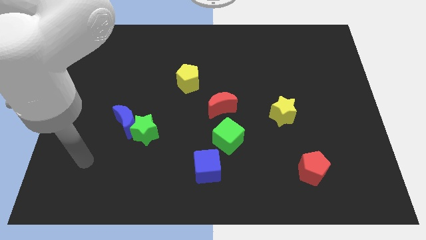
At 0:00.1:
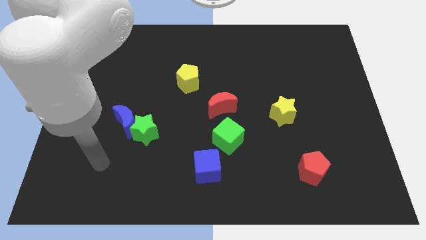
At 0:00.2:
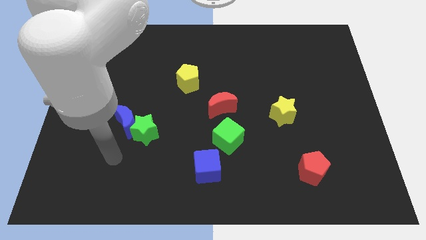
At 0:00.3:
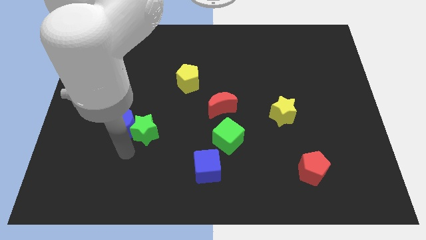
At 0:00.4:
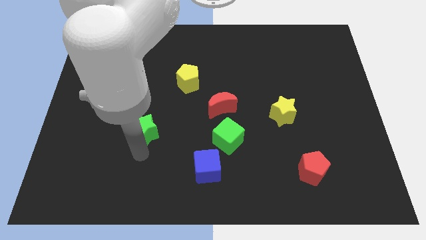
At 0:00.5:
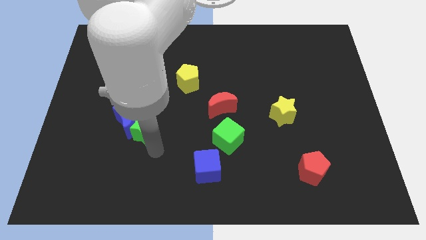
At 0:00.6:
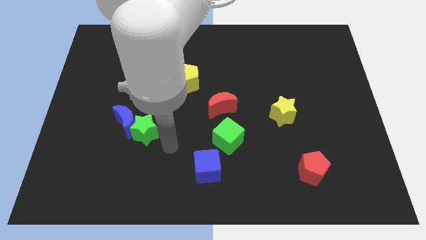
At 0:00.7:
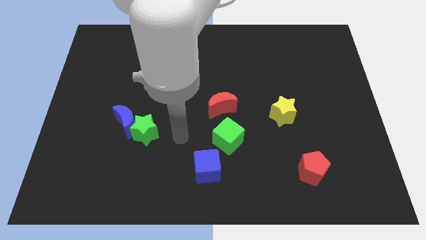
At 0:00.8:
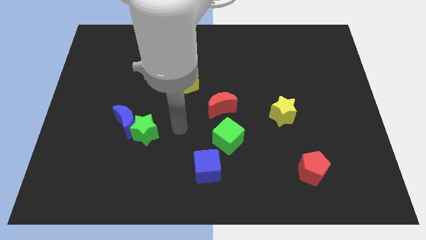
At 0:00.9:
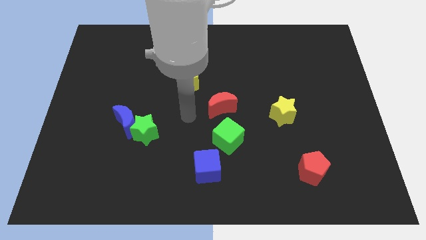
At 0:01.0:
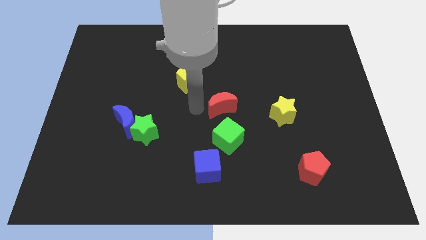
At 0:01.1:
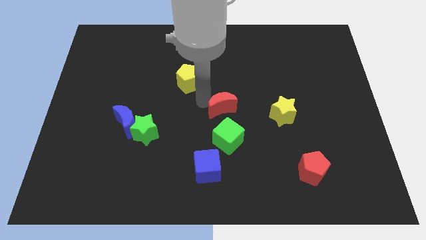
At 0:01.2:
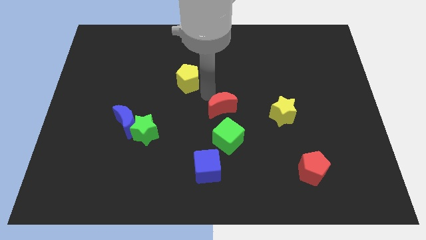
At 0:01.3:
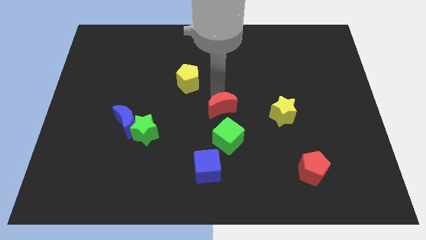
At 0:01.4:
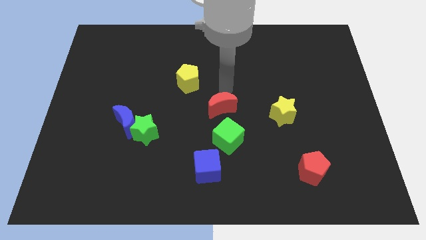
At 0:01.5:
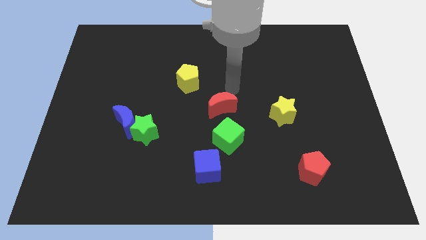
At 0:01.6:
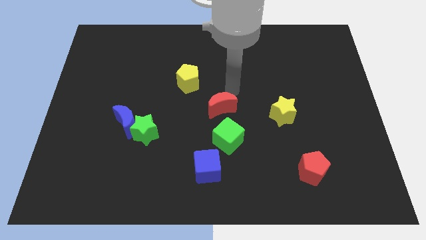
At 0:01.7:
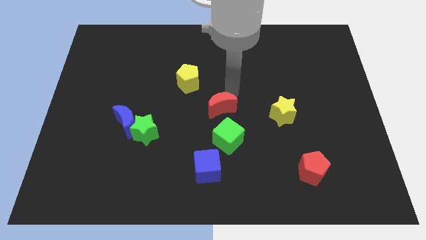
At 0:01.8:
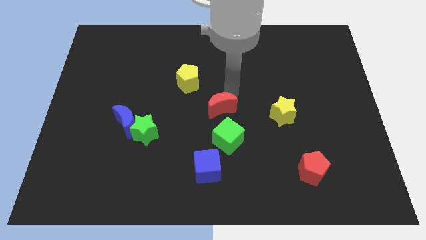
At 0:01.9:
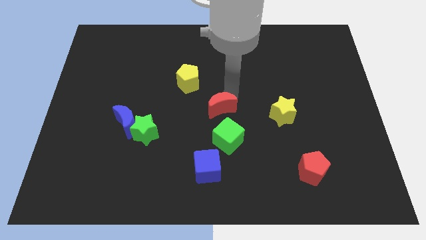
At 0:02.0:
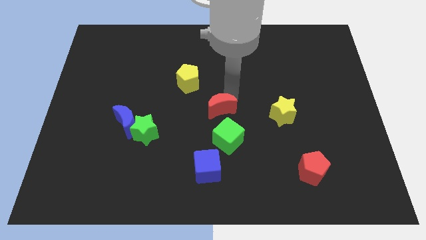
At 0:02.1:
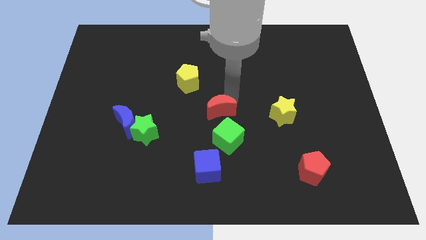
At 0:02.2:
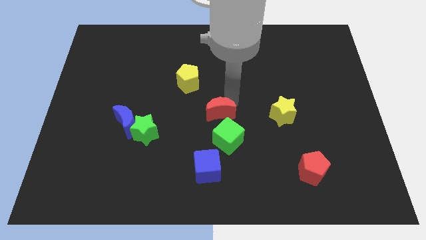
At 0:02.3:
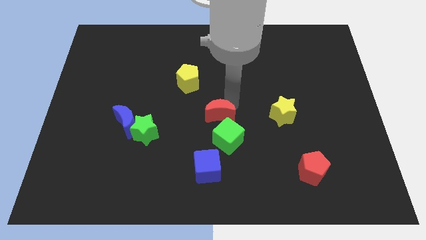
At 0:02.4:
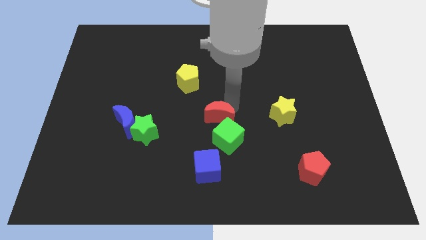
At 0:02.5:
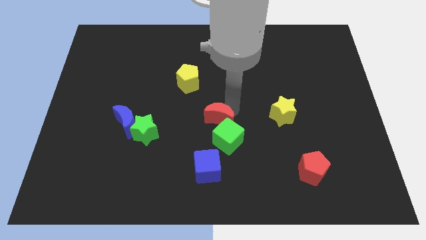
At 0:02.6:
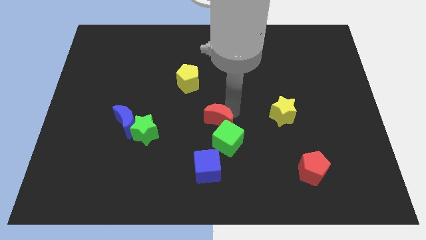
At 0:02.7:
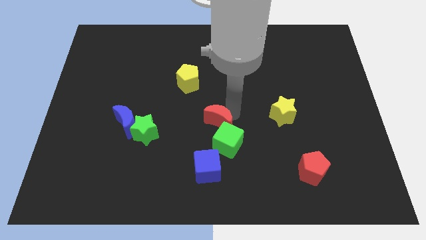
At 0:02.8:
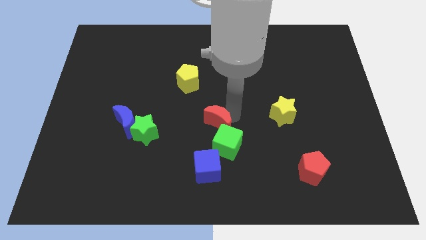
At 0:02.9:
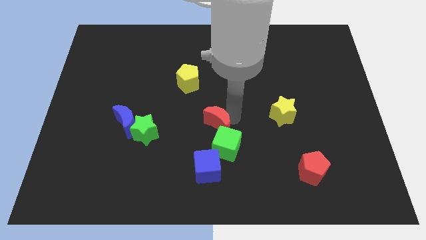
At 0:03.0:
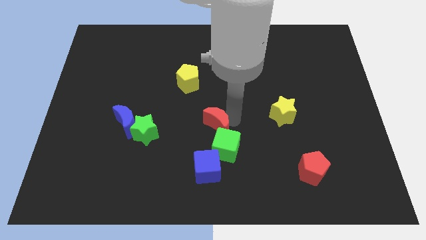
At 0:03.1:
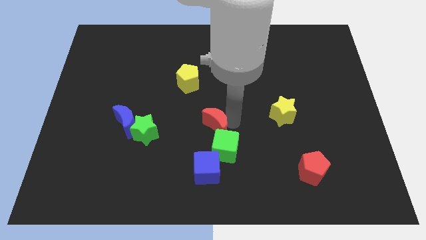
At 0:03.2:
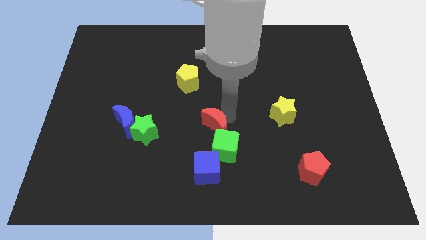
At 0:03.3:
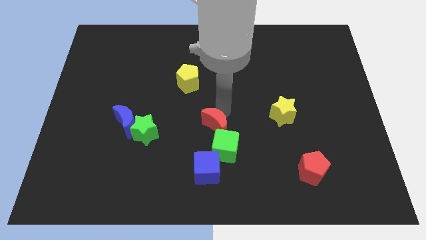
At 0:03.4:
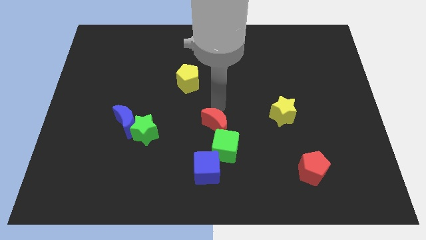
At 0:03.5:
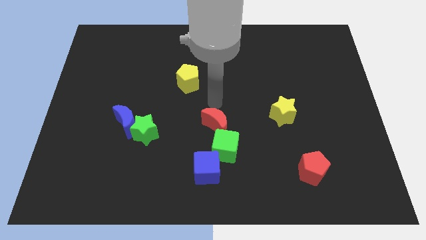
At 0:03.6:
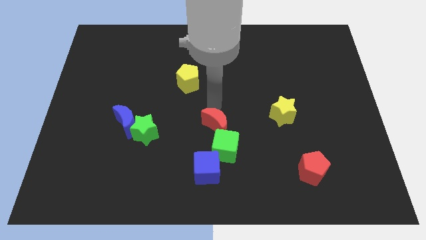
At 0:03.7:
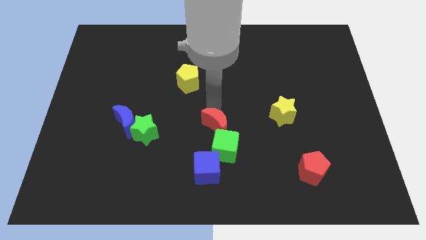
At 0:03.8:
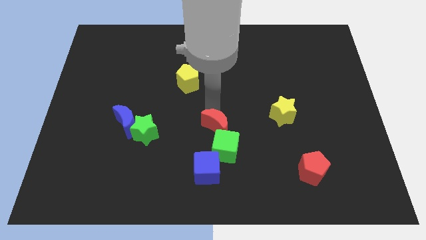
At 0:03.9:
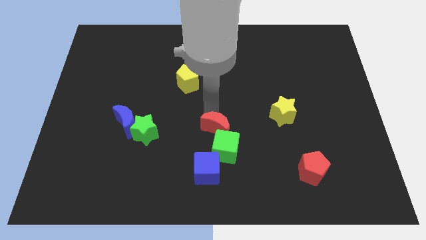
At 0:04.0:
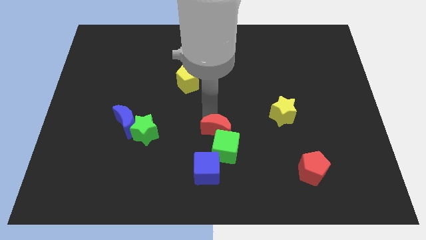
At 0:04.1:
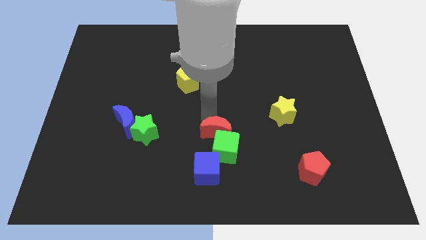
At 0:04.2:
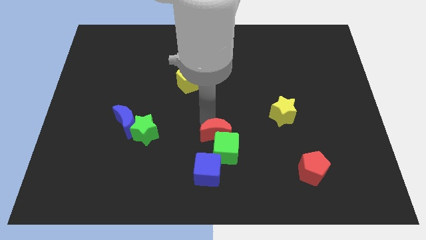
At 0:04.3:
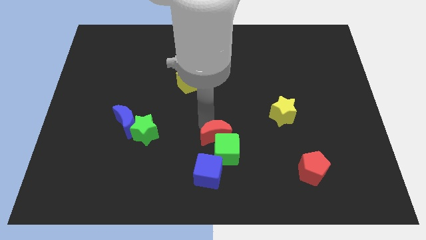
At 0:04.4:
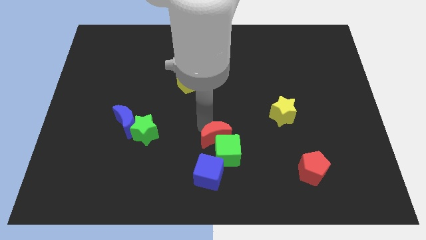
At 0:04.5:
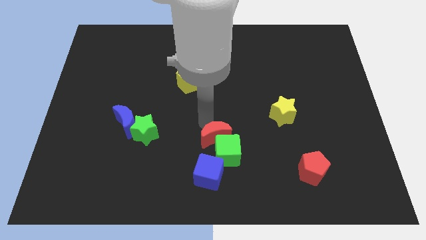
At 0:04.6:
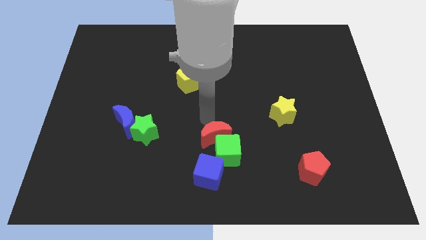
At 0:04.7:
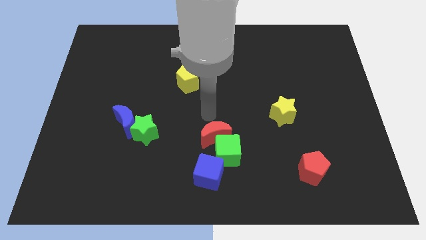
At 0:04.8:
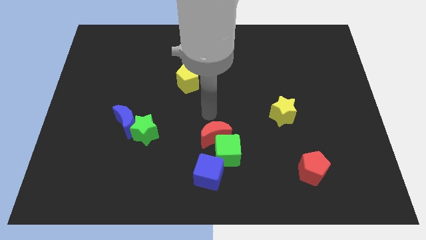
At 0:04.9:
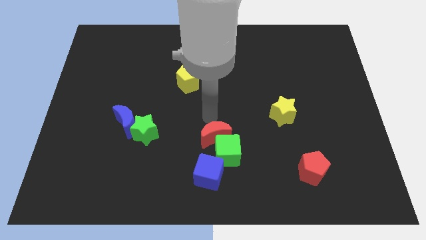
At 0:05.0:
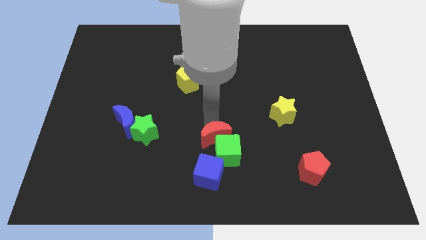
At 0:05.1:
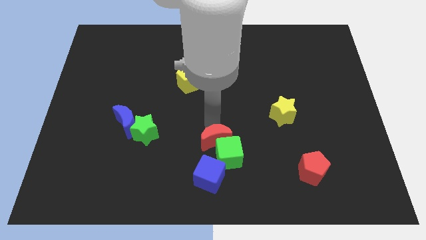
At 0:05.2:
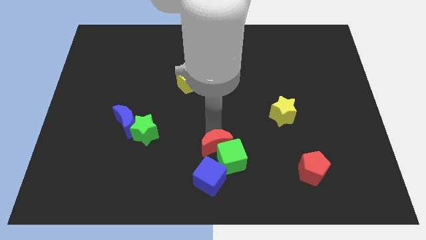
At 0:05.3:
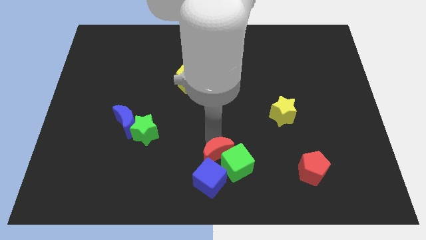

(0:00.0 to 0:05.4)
put the red moon to the bottom

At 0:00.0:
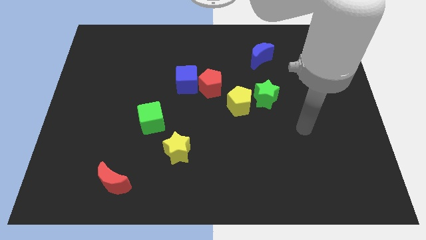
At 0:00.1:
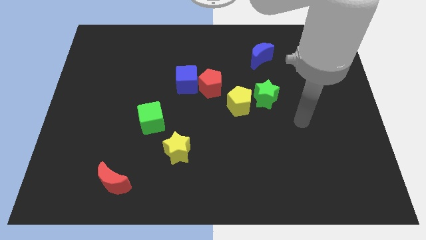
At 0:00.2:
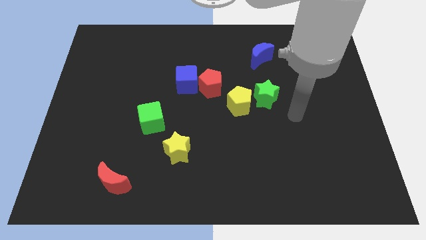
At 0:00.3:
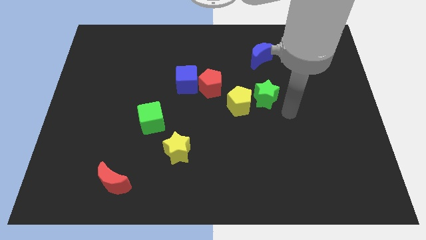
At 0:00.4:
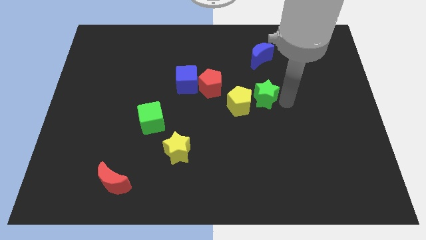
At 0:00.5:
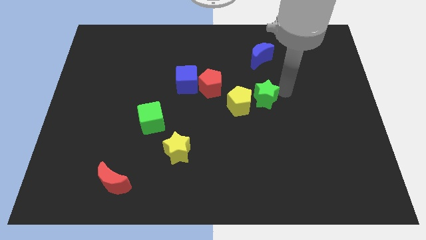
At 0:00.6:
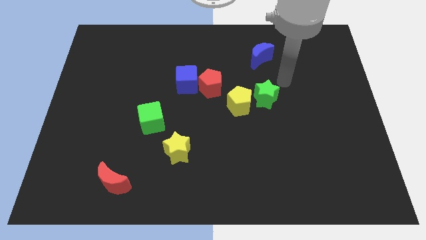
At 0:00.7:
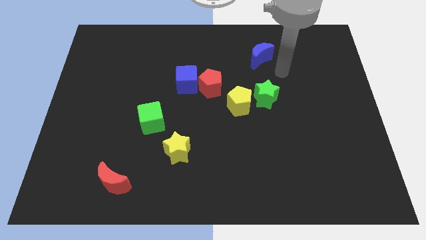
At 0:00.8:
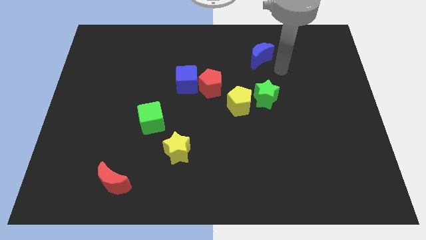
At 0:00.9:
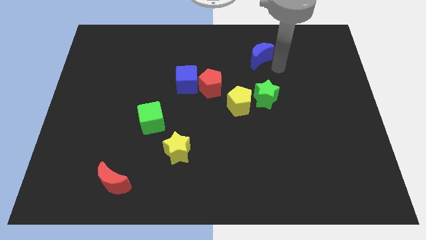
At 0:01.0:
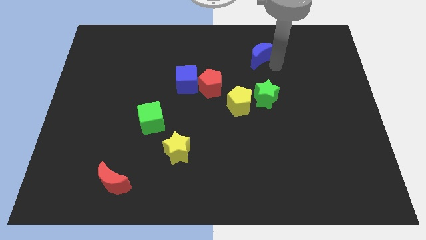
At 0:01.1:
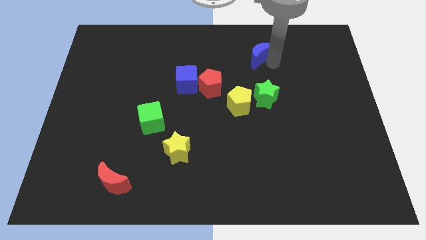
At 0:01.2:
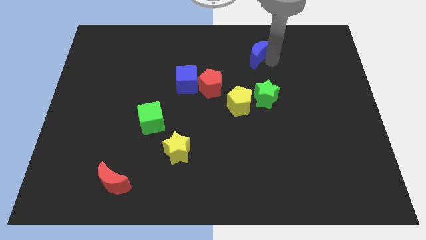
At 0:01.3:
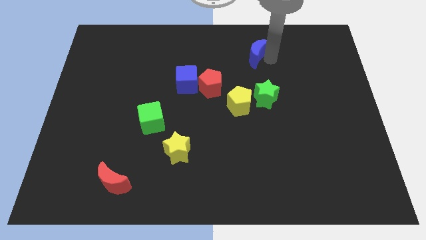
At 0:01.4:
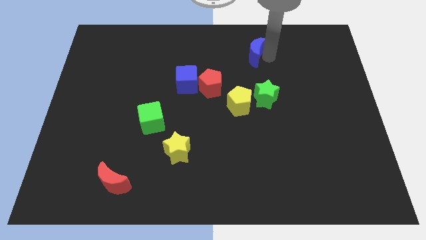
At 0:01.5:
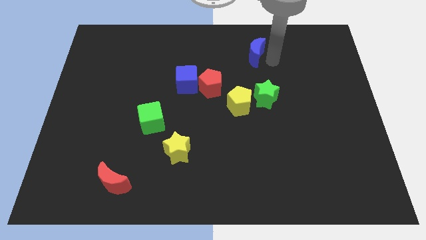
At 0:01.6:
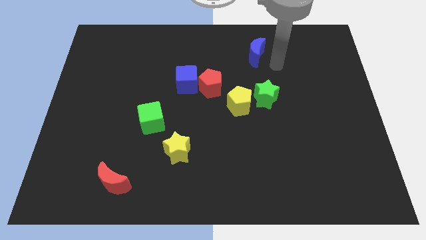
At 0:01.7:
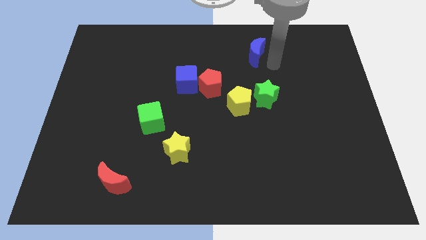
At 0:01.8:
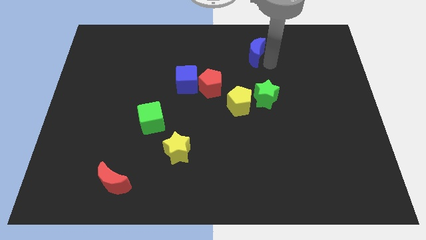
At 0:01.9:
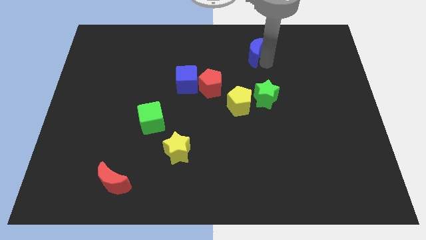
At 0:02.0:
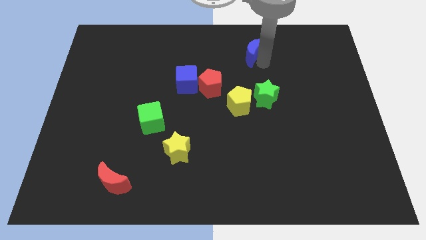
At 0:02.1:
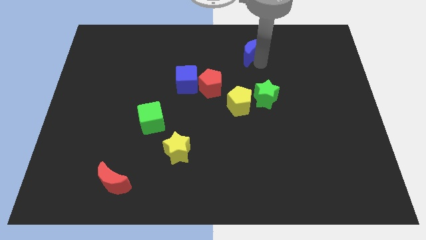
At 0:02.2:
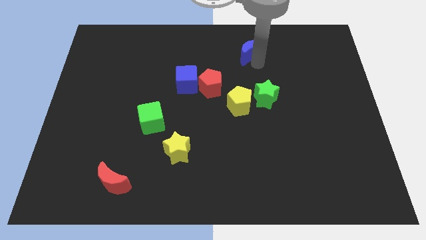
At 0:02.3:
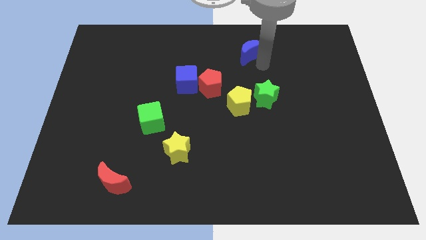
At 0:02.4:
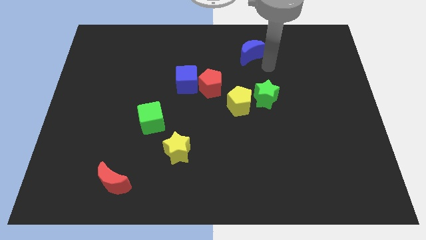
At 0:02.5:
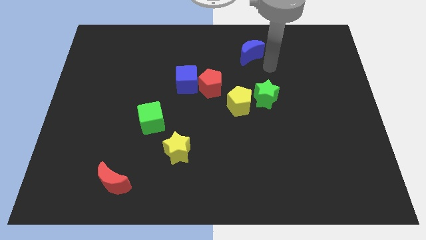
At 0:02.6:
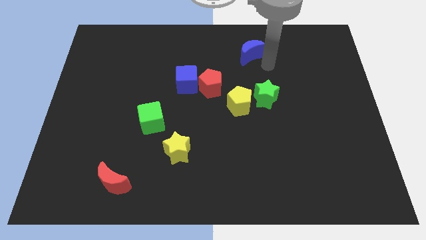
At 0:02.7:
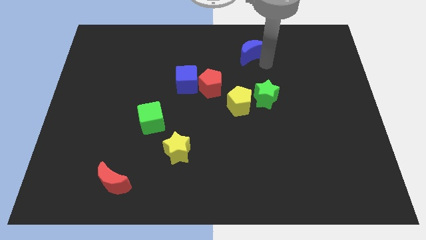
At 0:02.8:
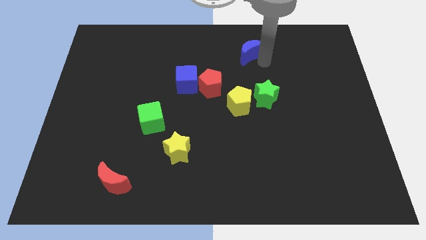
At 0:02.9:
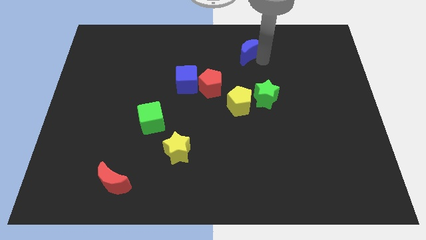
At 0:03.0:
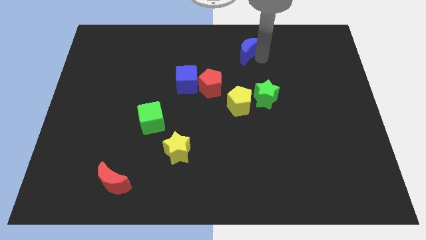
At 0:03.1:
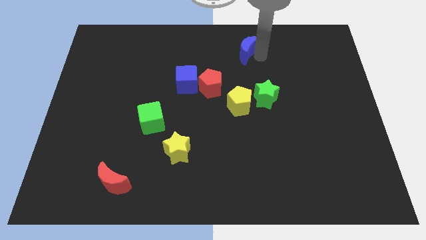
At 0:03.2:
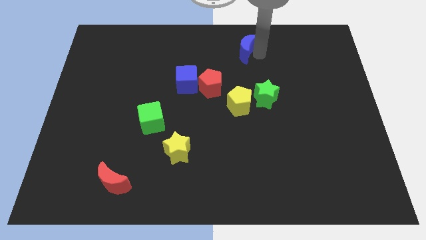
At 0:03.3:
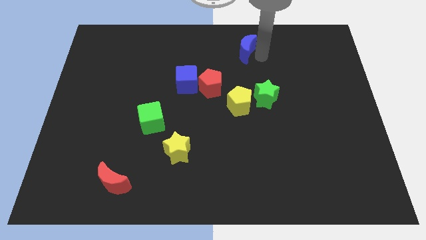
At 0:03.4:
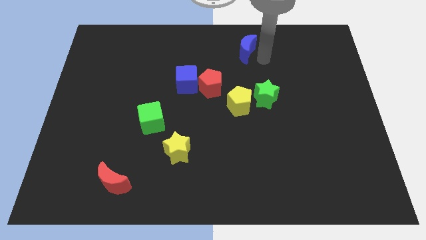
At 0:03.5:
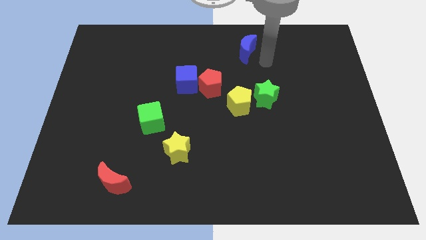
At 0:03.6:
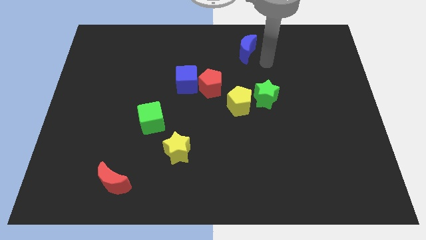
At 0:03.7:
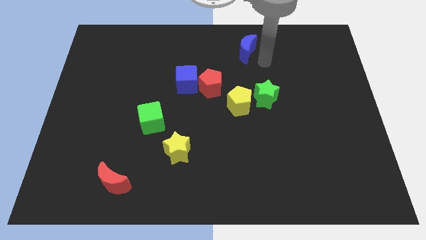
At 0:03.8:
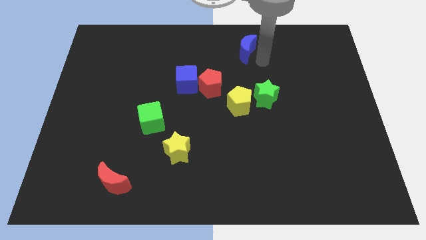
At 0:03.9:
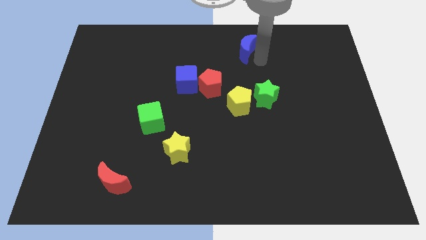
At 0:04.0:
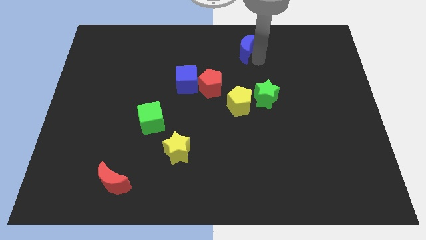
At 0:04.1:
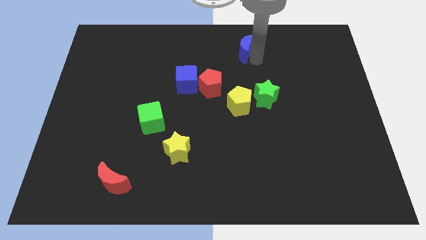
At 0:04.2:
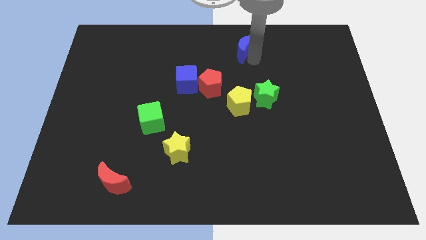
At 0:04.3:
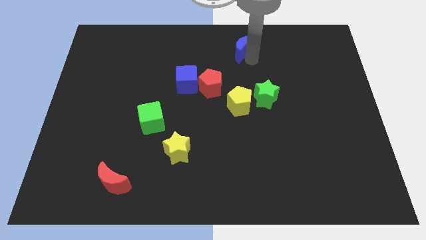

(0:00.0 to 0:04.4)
put the blue moon to the top side
